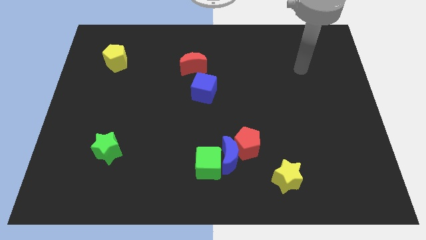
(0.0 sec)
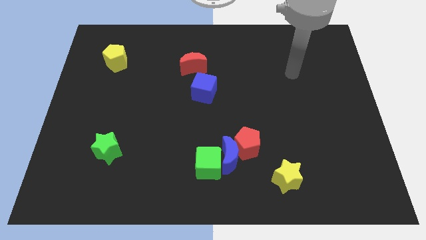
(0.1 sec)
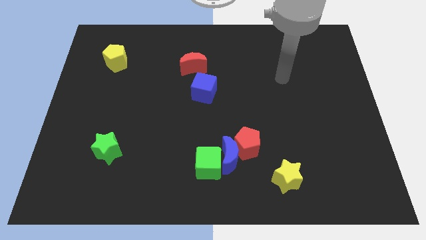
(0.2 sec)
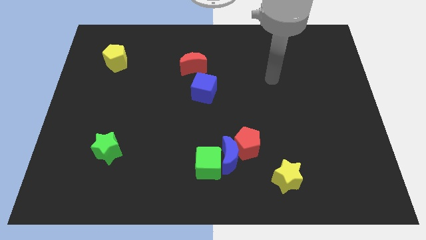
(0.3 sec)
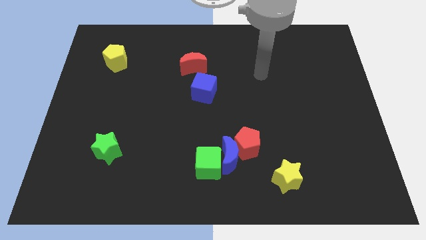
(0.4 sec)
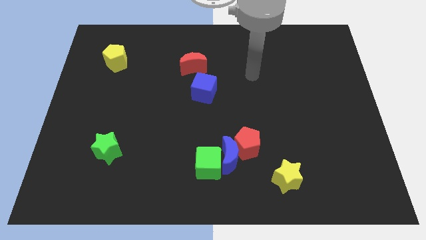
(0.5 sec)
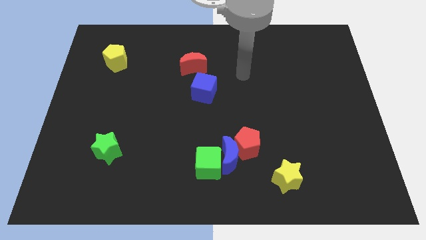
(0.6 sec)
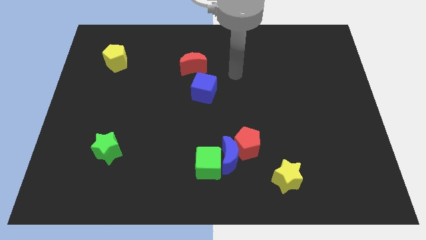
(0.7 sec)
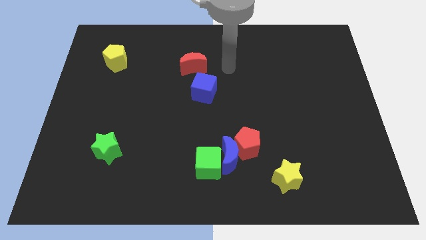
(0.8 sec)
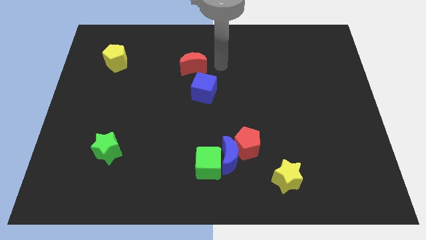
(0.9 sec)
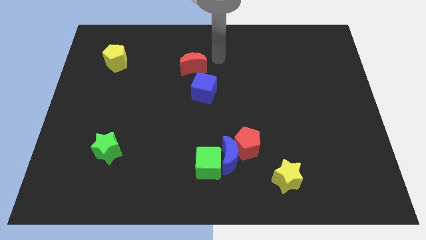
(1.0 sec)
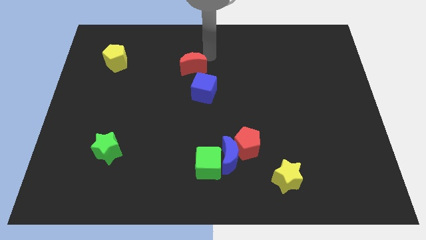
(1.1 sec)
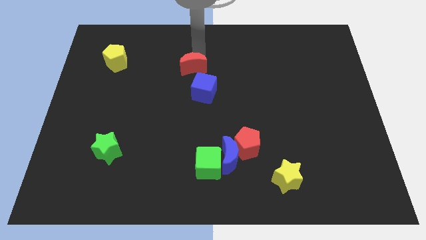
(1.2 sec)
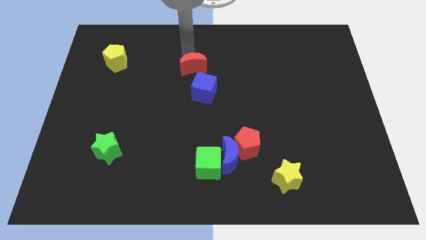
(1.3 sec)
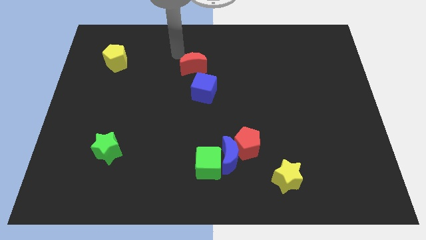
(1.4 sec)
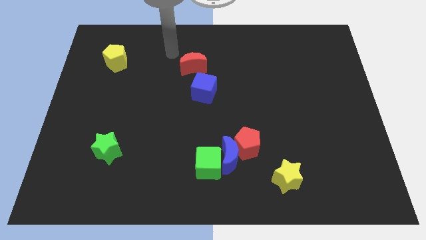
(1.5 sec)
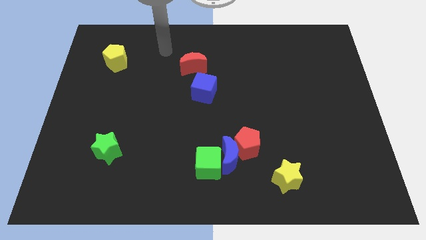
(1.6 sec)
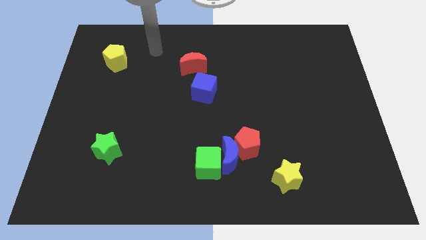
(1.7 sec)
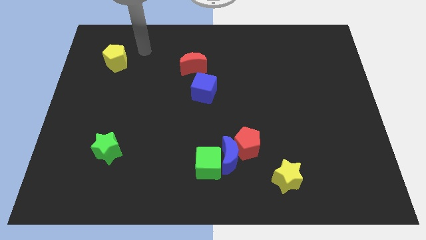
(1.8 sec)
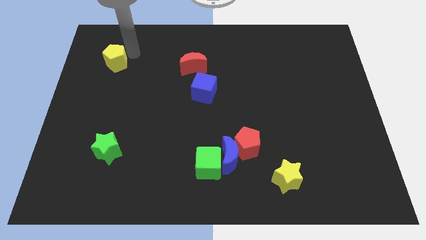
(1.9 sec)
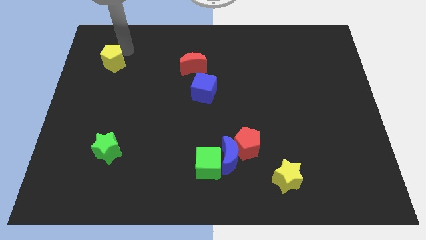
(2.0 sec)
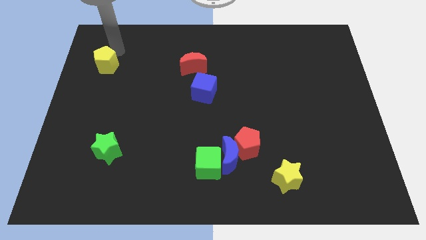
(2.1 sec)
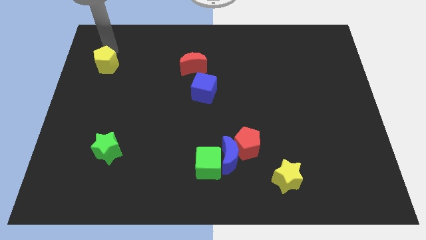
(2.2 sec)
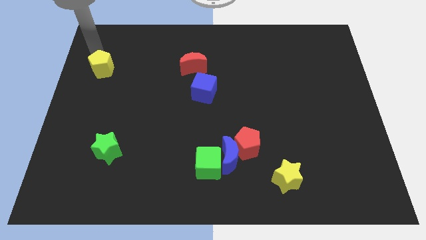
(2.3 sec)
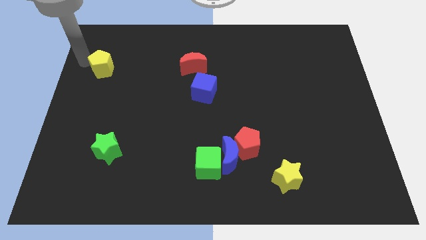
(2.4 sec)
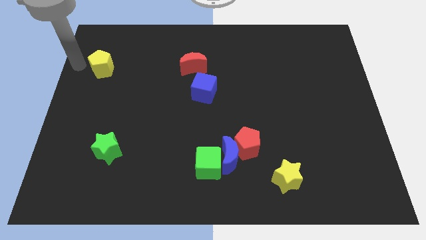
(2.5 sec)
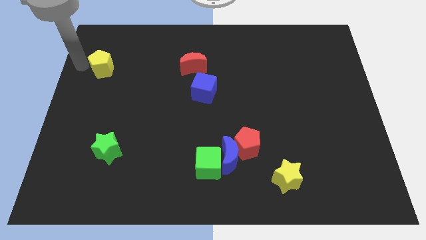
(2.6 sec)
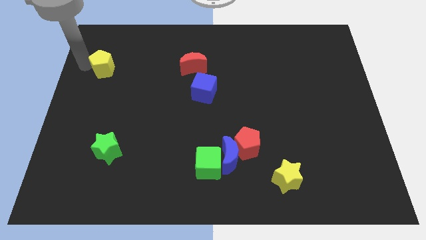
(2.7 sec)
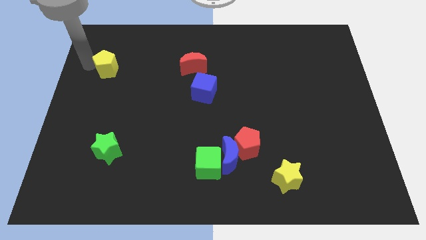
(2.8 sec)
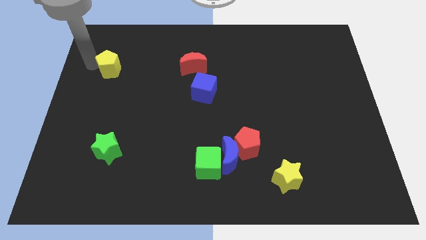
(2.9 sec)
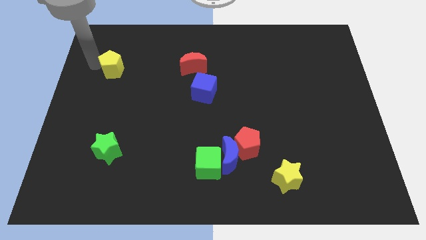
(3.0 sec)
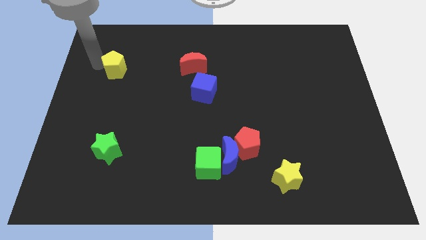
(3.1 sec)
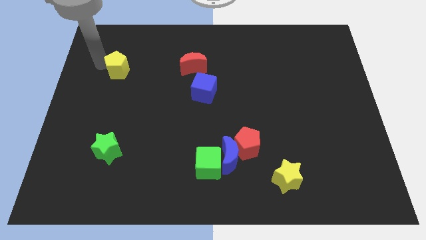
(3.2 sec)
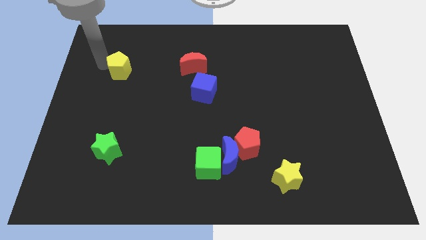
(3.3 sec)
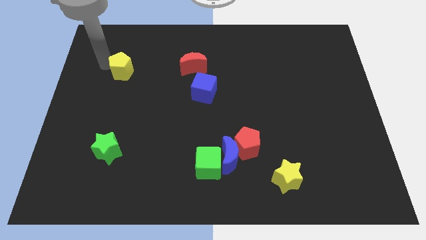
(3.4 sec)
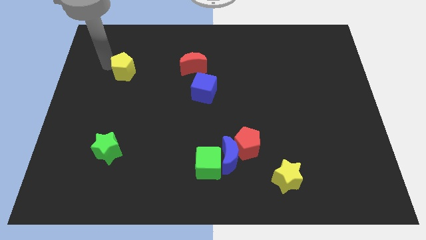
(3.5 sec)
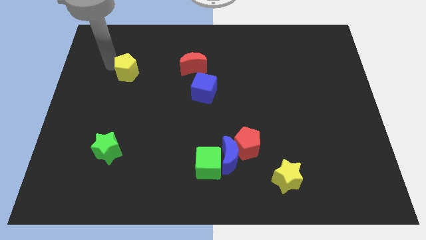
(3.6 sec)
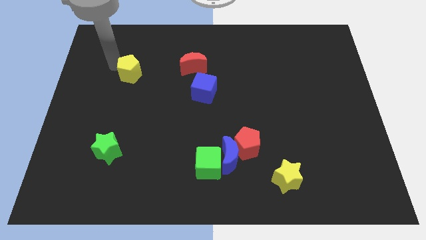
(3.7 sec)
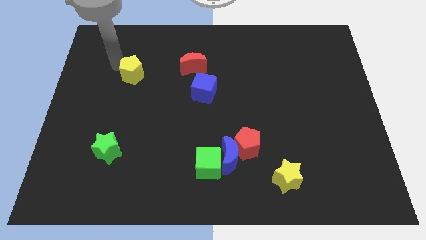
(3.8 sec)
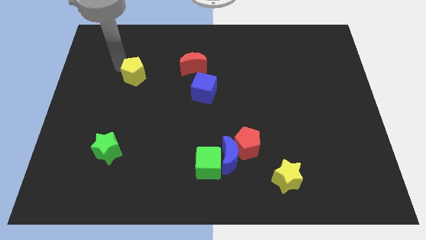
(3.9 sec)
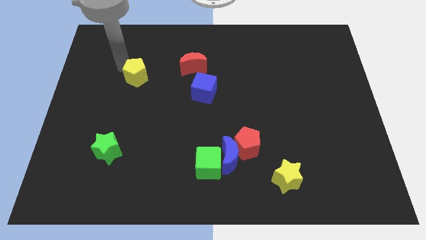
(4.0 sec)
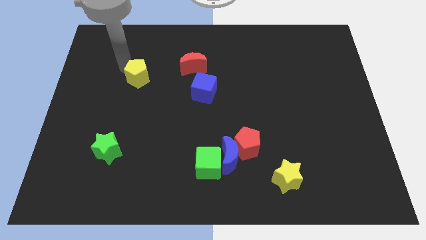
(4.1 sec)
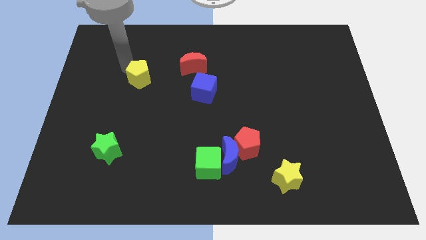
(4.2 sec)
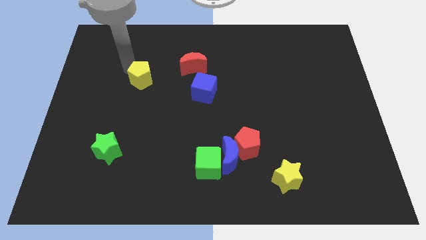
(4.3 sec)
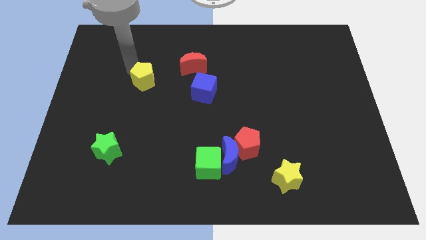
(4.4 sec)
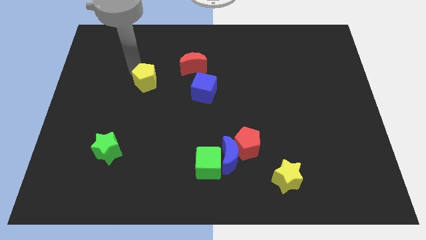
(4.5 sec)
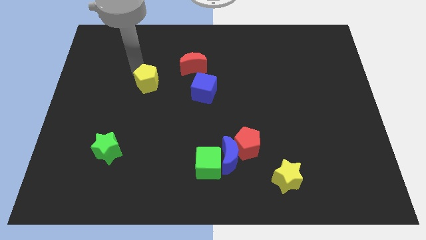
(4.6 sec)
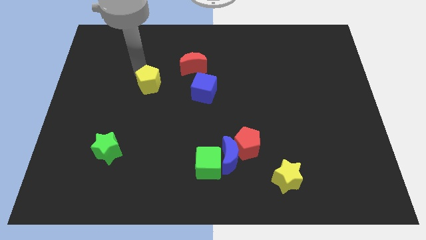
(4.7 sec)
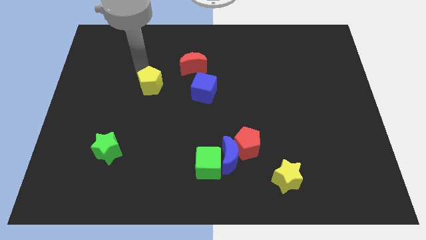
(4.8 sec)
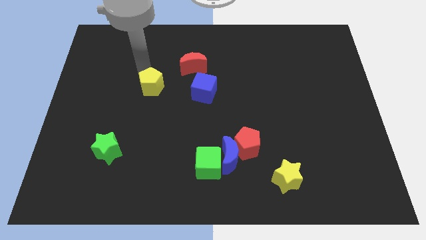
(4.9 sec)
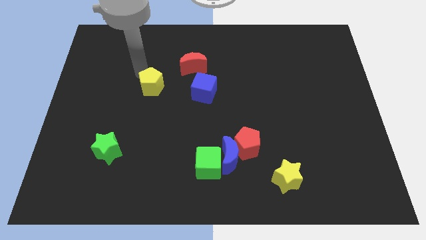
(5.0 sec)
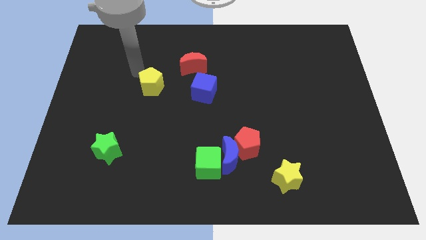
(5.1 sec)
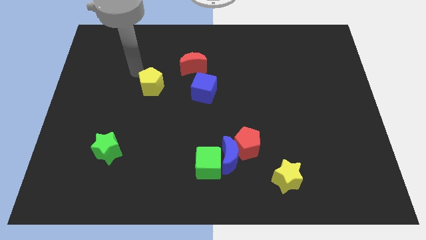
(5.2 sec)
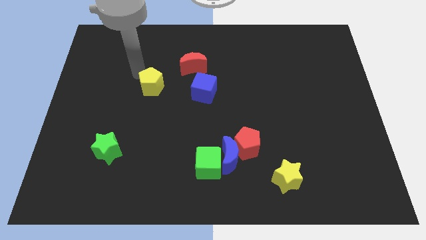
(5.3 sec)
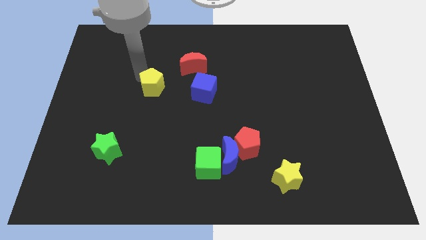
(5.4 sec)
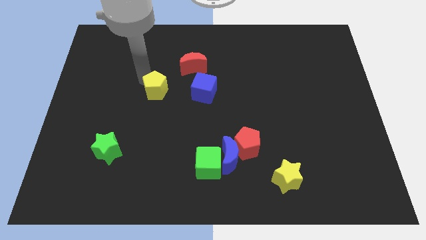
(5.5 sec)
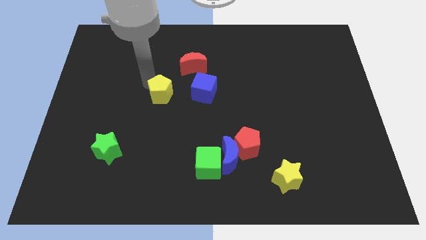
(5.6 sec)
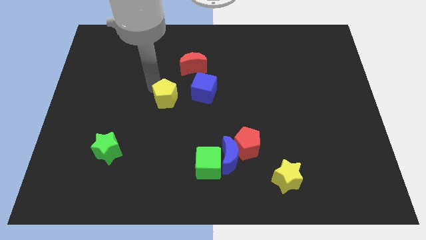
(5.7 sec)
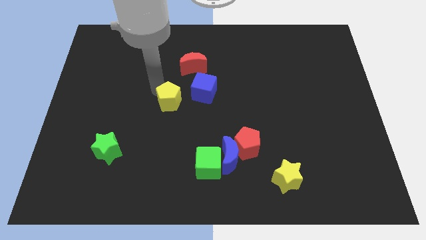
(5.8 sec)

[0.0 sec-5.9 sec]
slide the yellow pentagon down and to the right

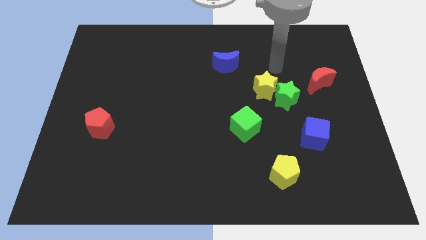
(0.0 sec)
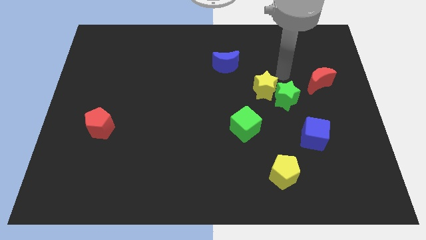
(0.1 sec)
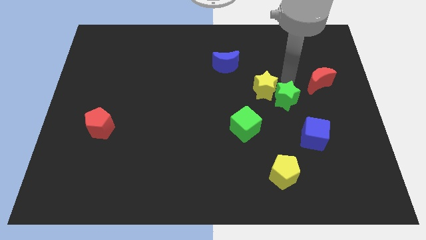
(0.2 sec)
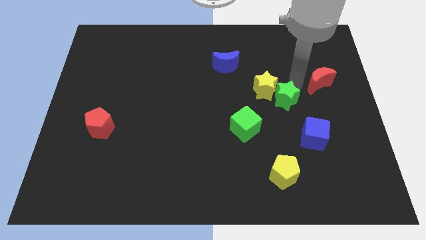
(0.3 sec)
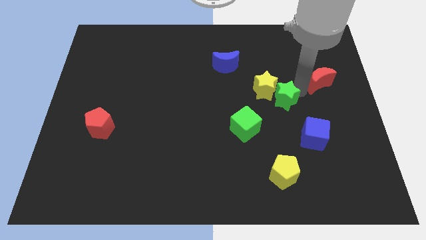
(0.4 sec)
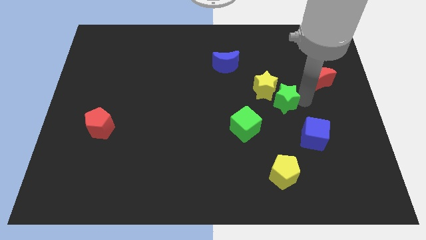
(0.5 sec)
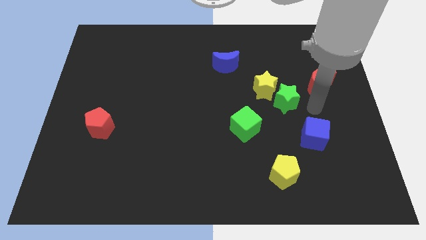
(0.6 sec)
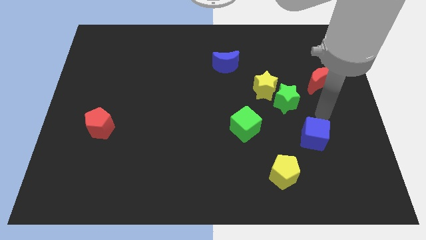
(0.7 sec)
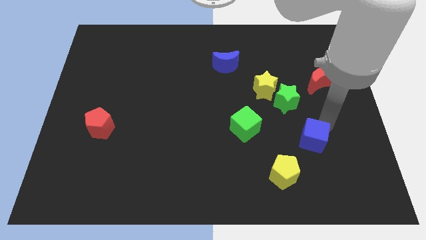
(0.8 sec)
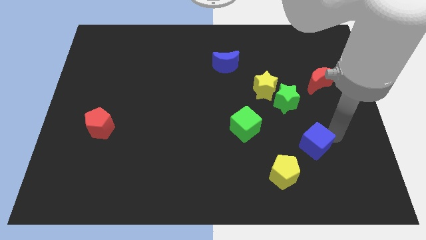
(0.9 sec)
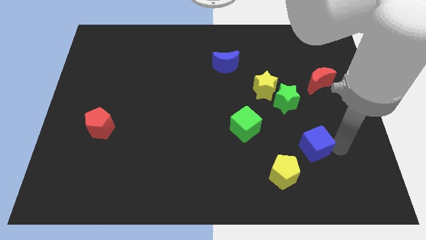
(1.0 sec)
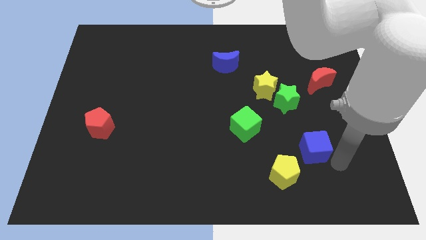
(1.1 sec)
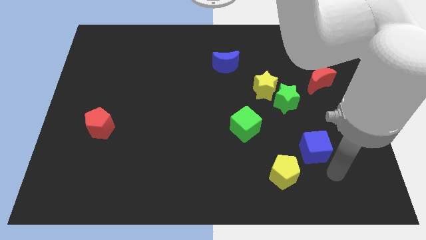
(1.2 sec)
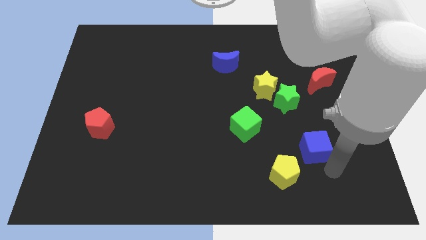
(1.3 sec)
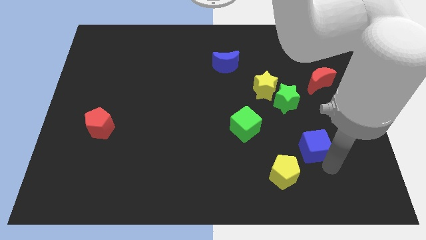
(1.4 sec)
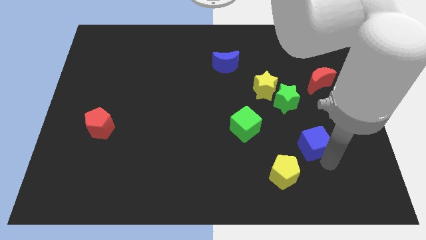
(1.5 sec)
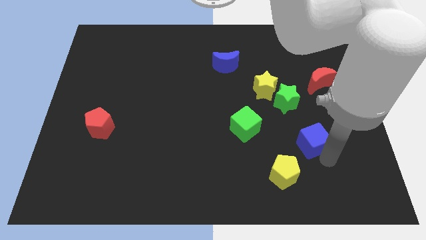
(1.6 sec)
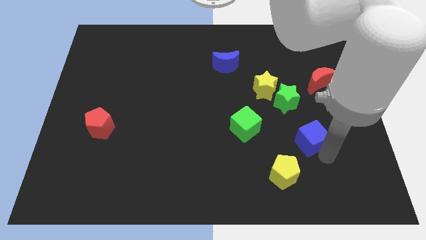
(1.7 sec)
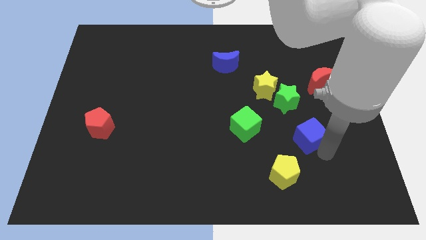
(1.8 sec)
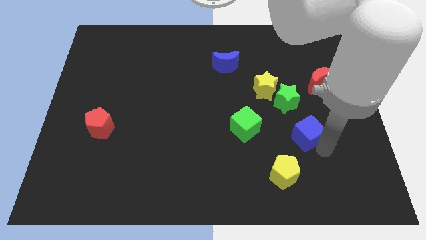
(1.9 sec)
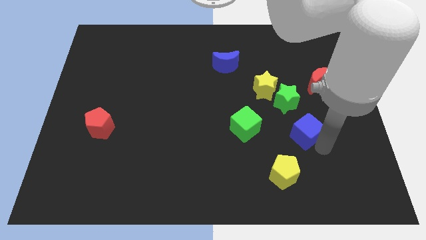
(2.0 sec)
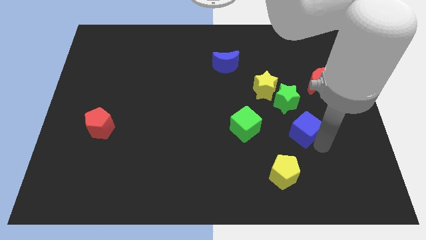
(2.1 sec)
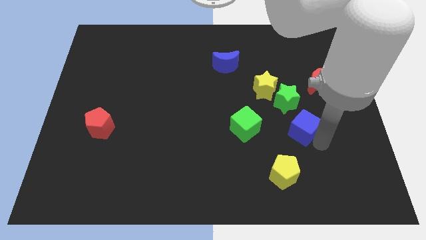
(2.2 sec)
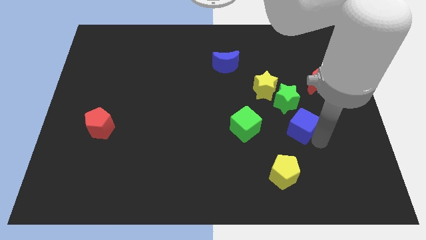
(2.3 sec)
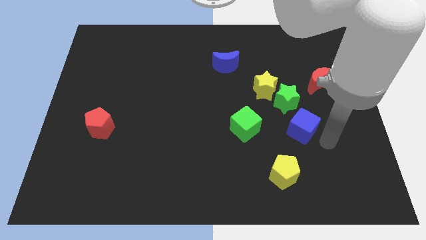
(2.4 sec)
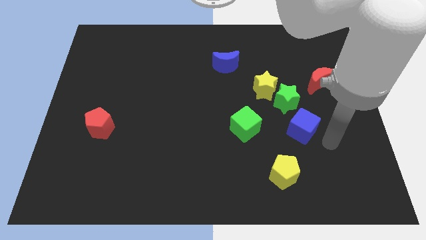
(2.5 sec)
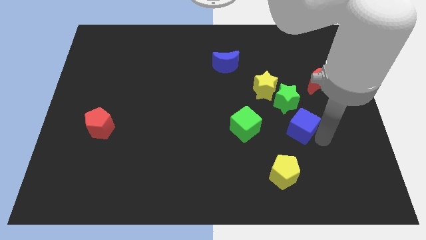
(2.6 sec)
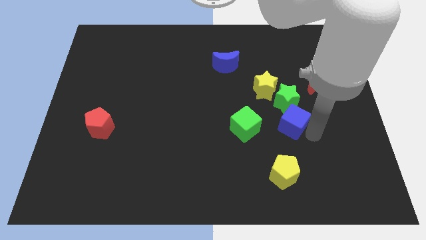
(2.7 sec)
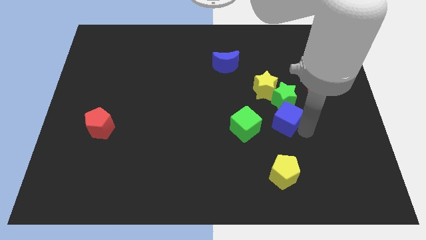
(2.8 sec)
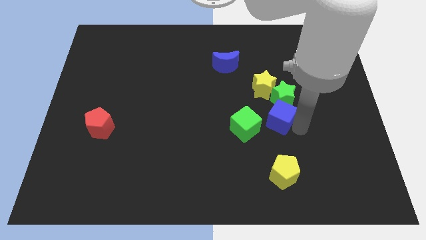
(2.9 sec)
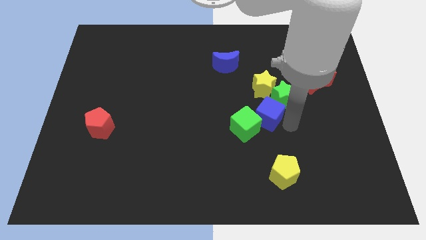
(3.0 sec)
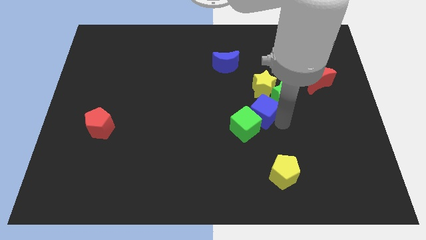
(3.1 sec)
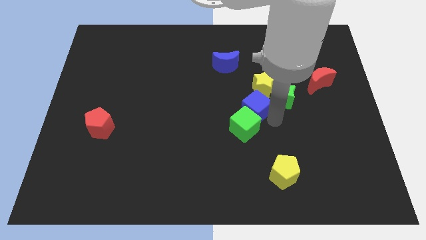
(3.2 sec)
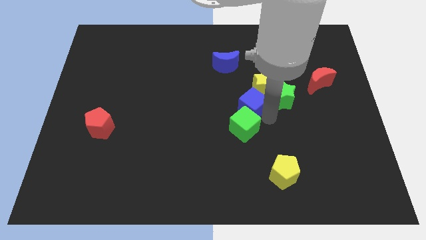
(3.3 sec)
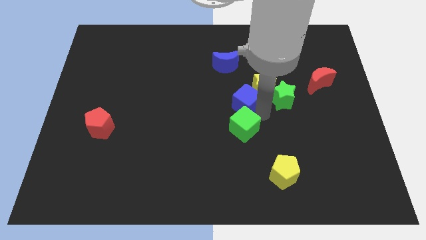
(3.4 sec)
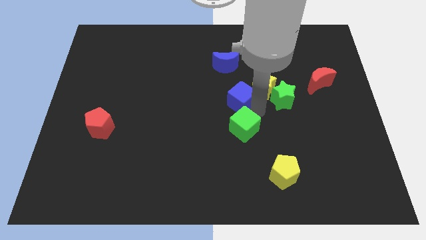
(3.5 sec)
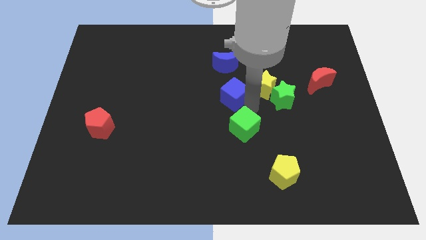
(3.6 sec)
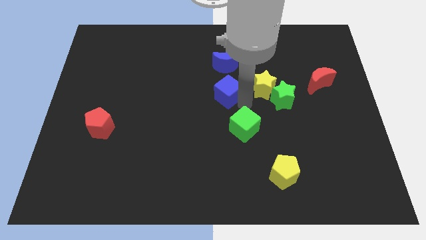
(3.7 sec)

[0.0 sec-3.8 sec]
push the blue cube upwards and then to the left
